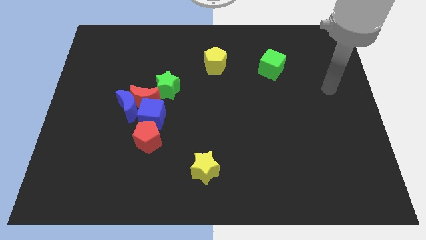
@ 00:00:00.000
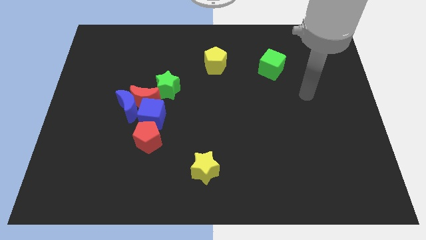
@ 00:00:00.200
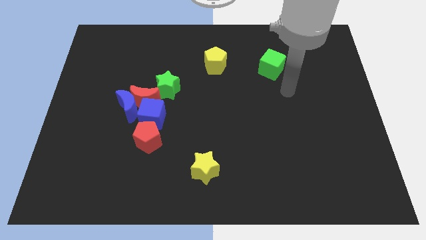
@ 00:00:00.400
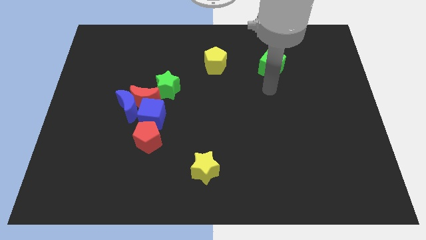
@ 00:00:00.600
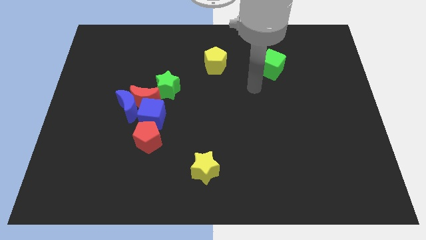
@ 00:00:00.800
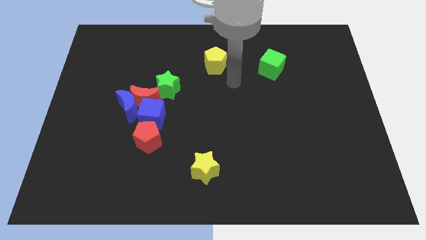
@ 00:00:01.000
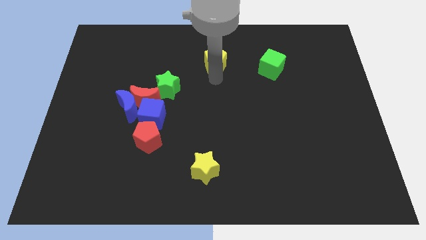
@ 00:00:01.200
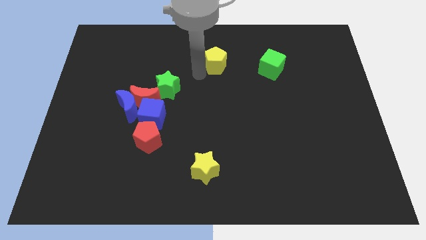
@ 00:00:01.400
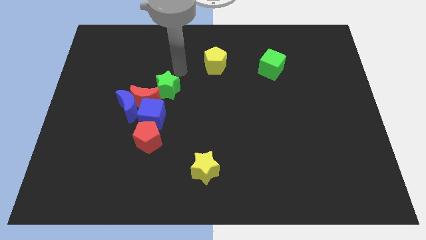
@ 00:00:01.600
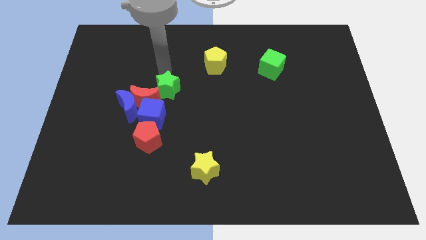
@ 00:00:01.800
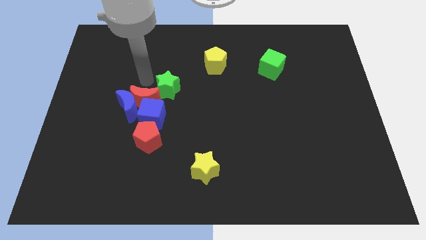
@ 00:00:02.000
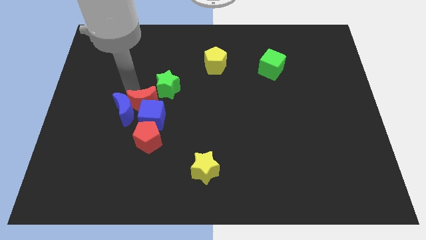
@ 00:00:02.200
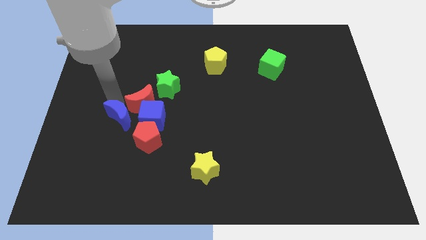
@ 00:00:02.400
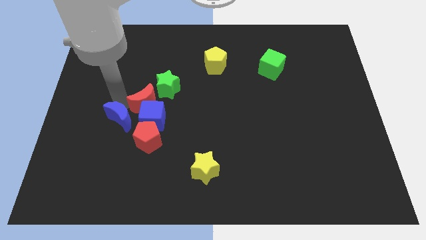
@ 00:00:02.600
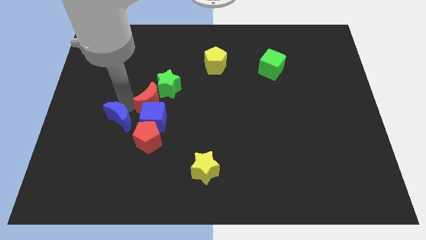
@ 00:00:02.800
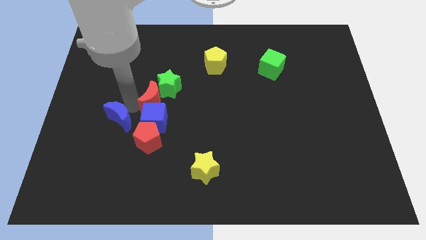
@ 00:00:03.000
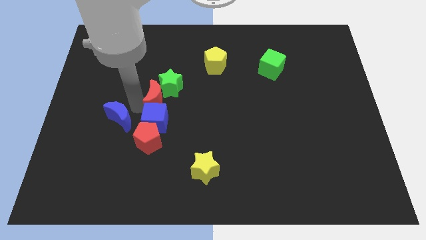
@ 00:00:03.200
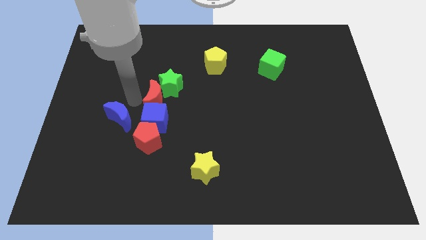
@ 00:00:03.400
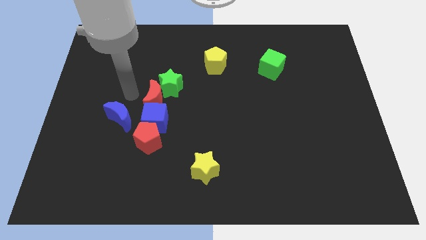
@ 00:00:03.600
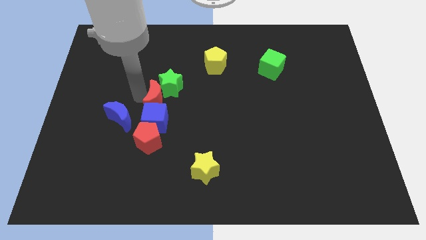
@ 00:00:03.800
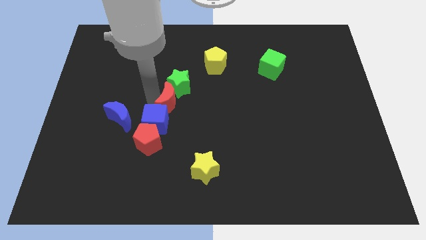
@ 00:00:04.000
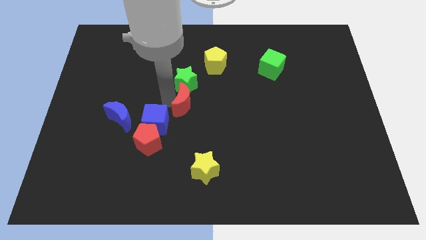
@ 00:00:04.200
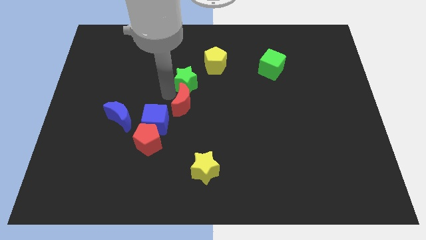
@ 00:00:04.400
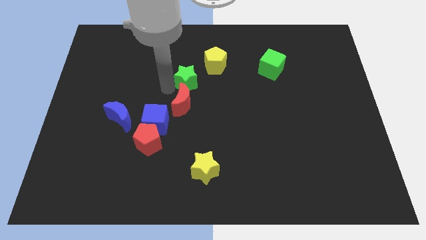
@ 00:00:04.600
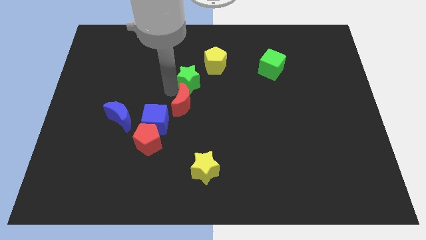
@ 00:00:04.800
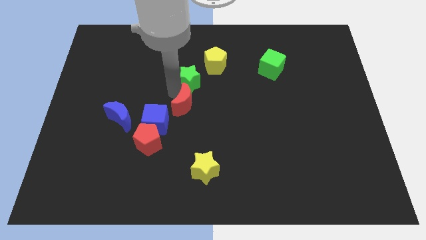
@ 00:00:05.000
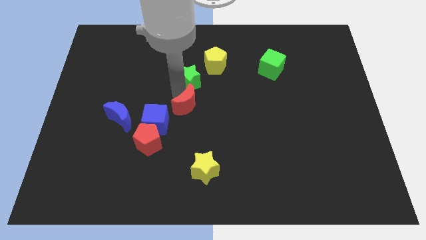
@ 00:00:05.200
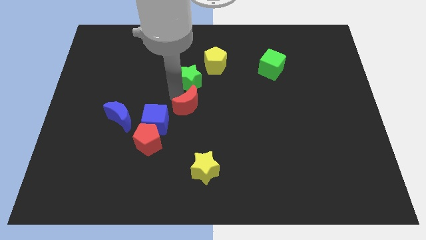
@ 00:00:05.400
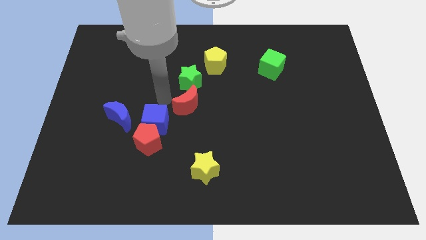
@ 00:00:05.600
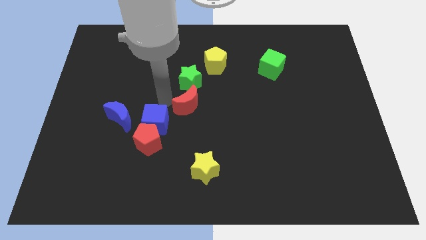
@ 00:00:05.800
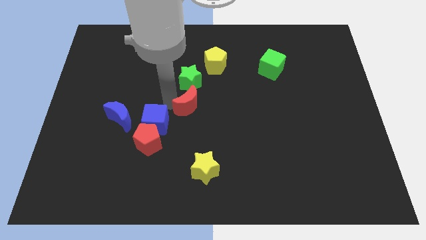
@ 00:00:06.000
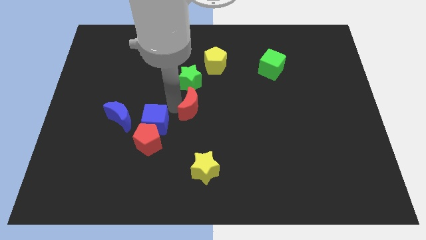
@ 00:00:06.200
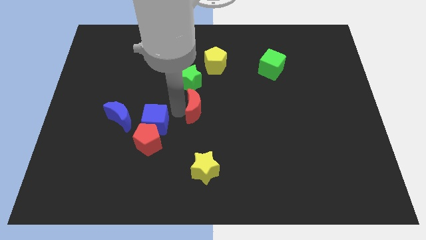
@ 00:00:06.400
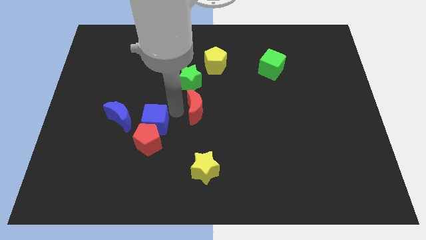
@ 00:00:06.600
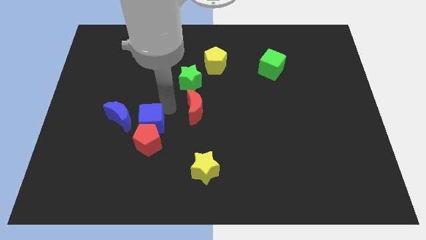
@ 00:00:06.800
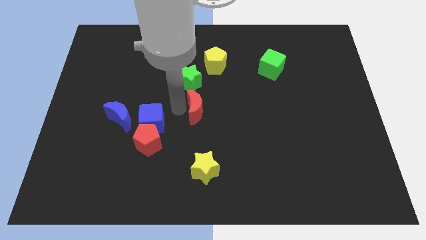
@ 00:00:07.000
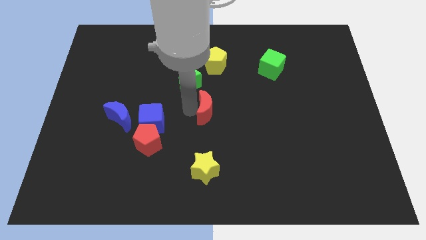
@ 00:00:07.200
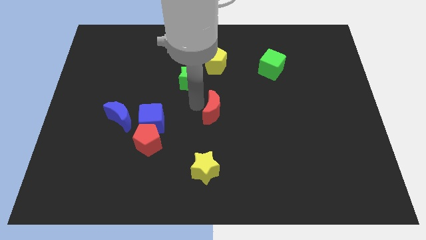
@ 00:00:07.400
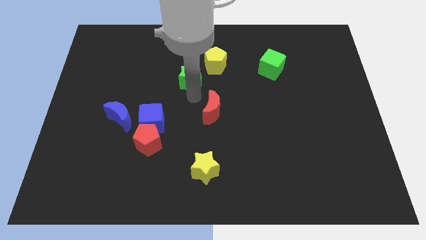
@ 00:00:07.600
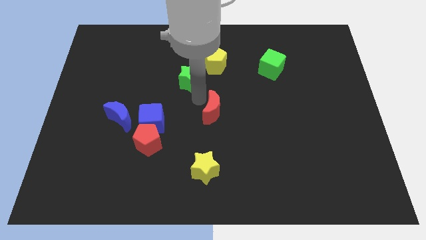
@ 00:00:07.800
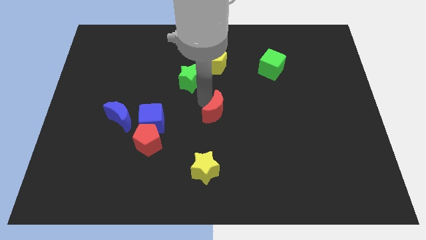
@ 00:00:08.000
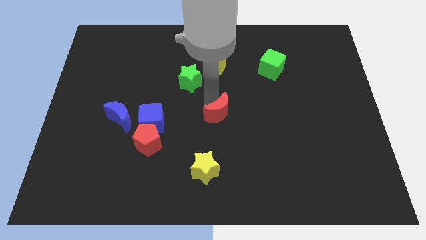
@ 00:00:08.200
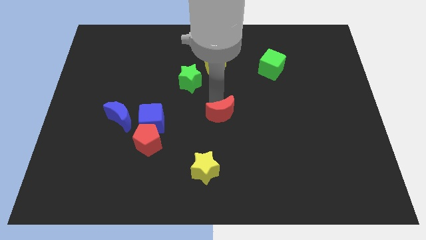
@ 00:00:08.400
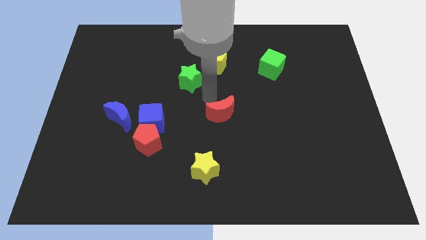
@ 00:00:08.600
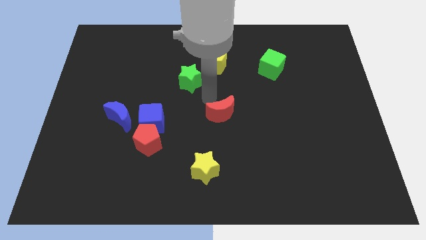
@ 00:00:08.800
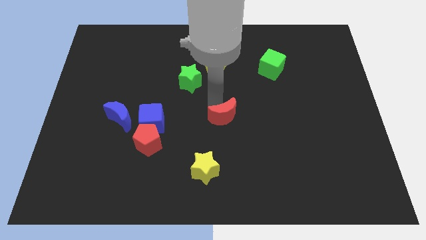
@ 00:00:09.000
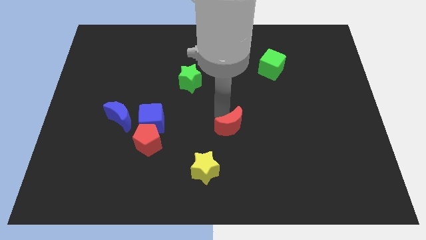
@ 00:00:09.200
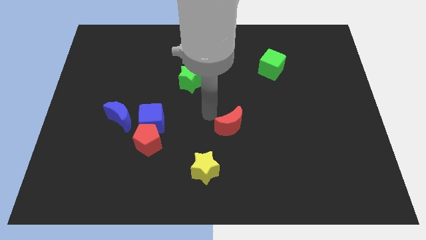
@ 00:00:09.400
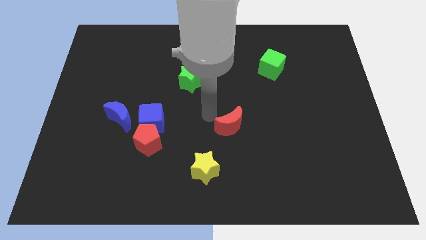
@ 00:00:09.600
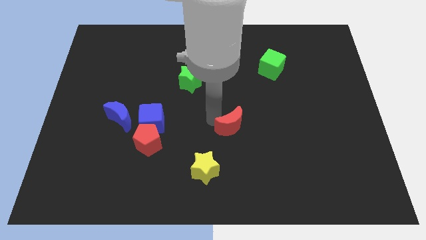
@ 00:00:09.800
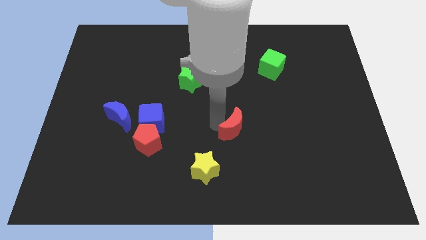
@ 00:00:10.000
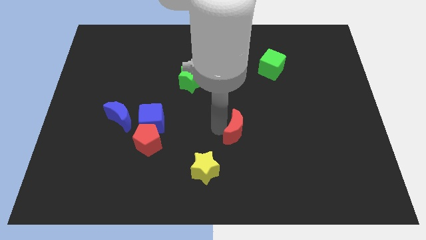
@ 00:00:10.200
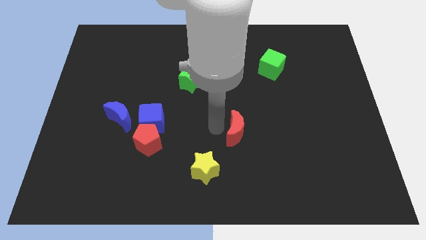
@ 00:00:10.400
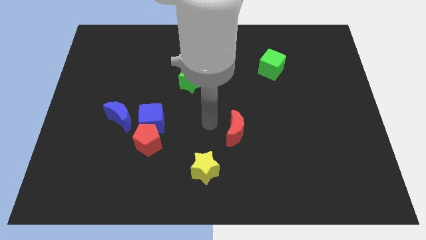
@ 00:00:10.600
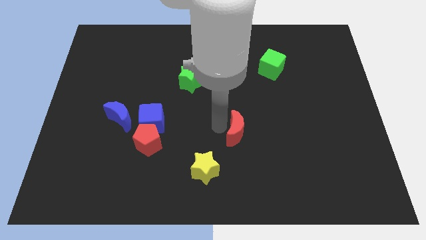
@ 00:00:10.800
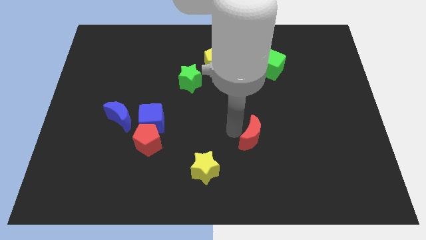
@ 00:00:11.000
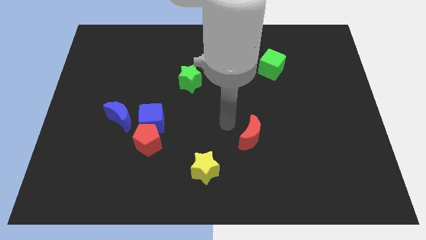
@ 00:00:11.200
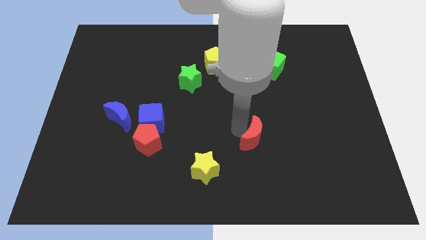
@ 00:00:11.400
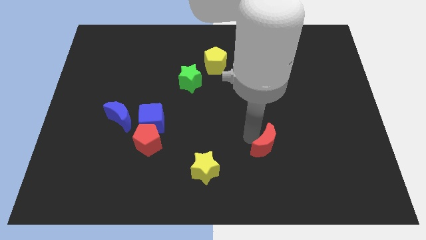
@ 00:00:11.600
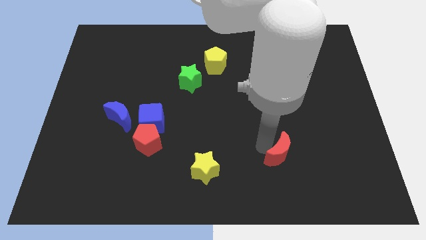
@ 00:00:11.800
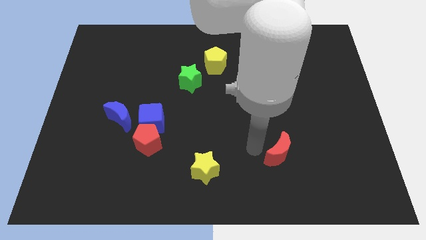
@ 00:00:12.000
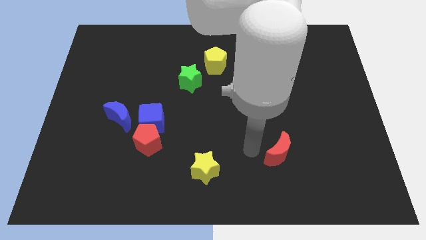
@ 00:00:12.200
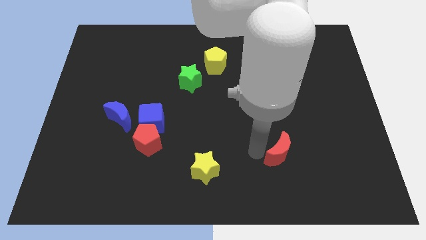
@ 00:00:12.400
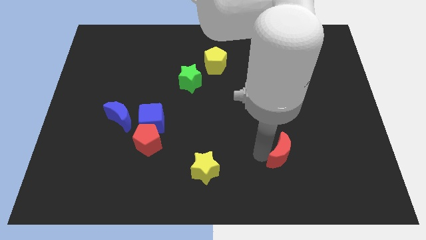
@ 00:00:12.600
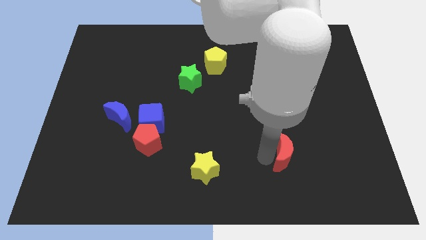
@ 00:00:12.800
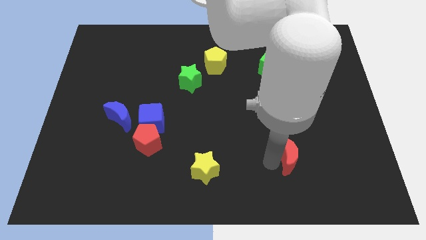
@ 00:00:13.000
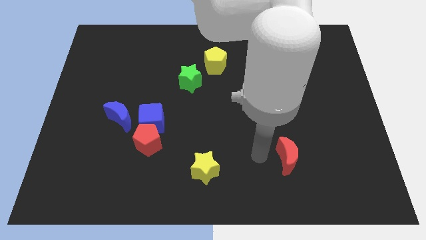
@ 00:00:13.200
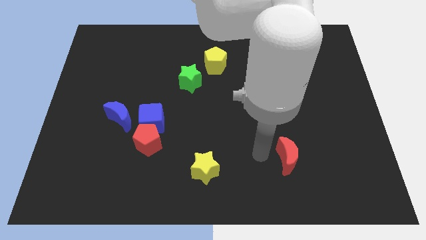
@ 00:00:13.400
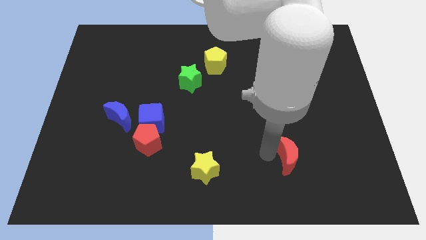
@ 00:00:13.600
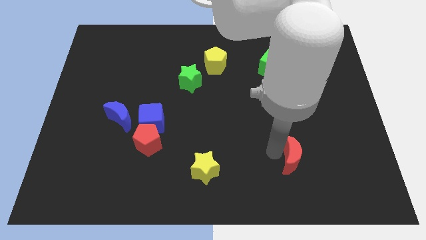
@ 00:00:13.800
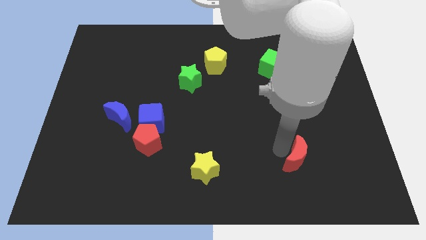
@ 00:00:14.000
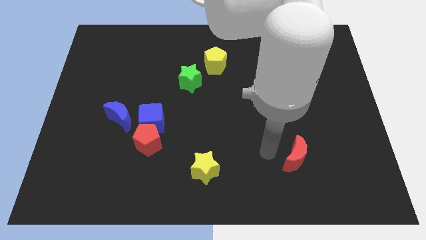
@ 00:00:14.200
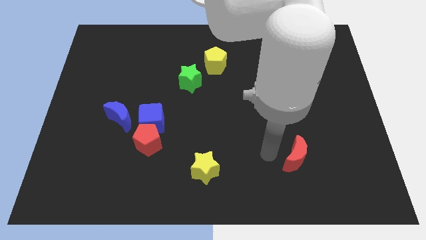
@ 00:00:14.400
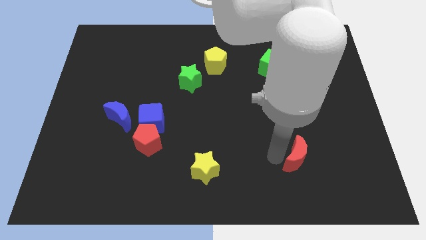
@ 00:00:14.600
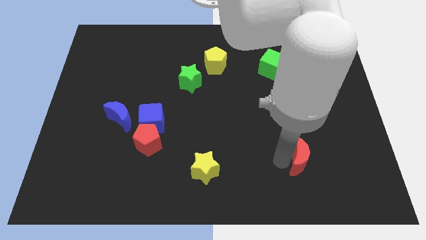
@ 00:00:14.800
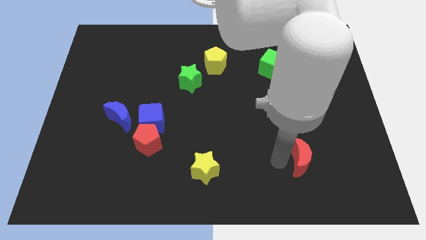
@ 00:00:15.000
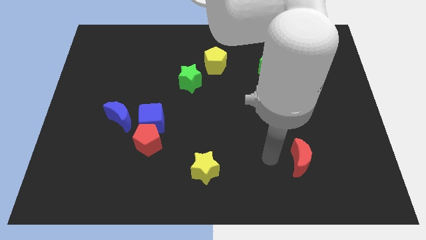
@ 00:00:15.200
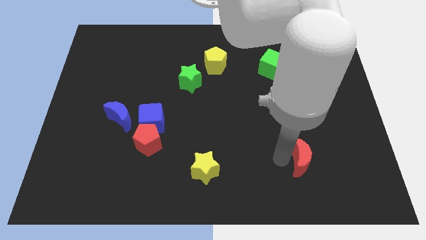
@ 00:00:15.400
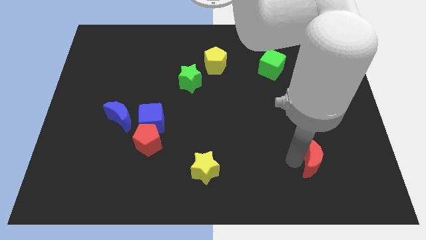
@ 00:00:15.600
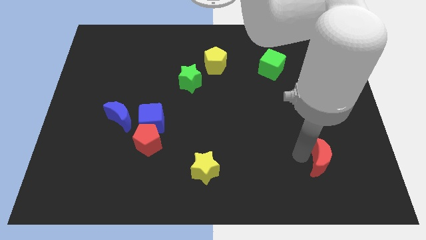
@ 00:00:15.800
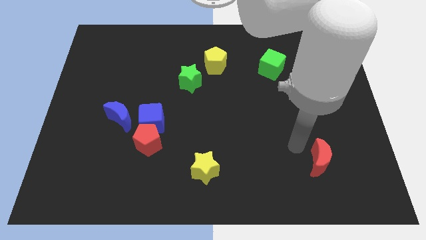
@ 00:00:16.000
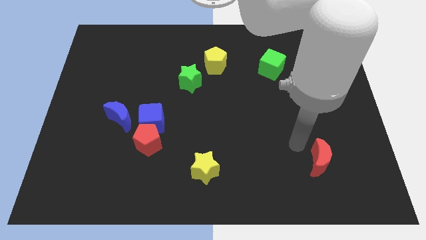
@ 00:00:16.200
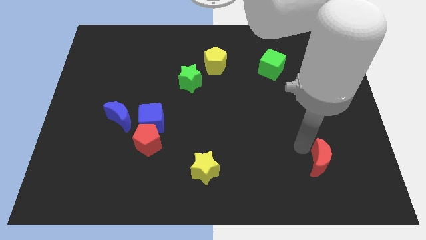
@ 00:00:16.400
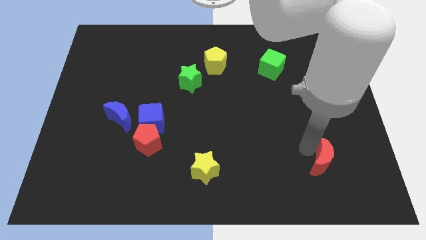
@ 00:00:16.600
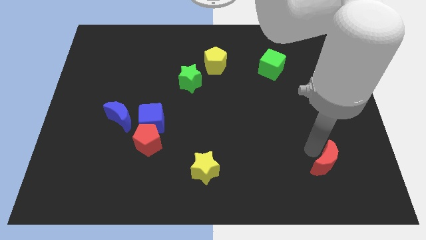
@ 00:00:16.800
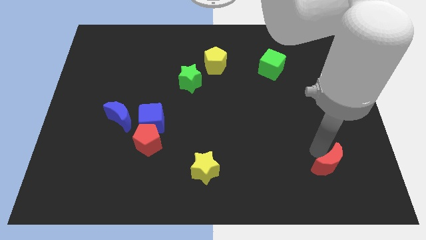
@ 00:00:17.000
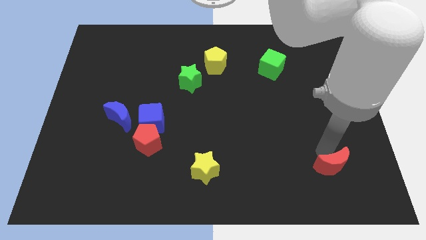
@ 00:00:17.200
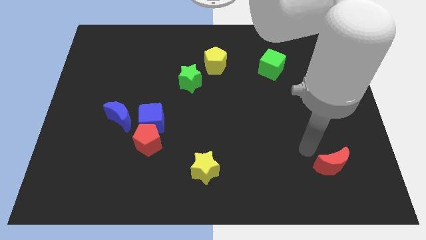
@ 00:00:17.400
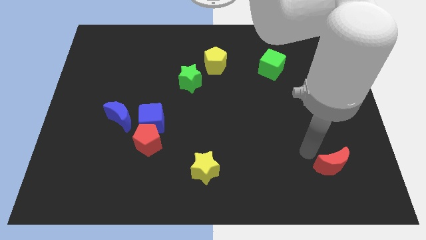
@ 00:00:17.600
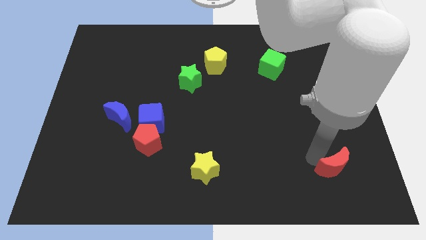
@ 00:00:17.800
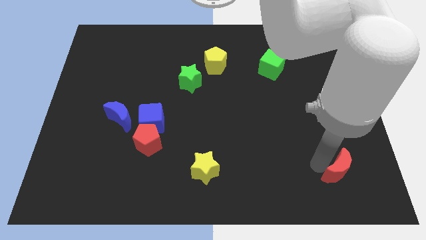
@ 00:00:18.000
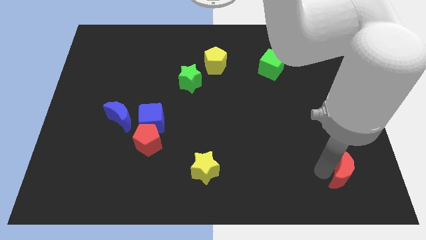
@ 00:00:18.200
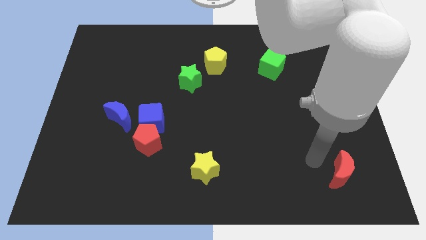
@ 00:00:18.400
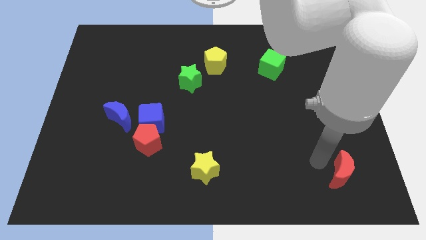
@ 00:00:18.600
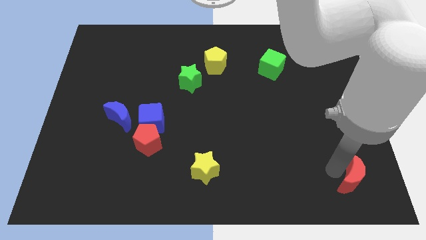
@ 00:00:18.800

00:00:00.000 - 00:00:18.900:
slide the red moon to the bottom right
